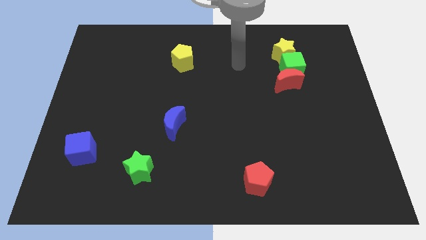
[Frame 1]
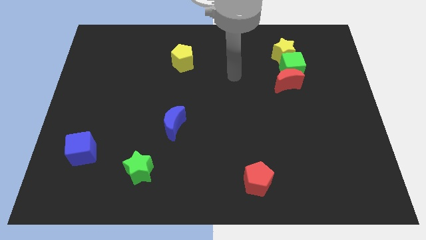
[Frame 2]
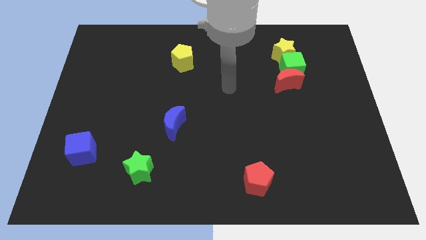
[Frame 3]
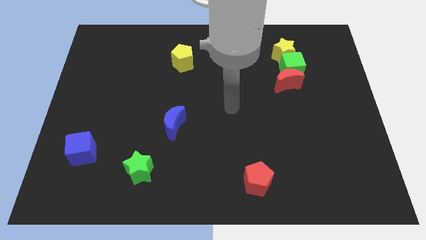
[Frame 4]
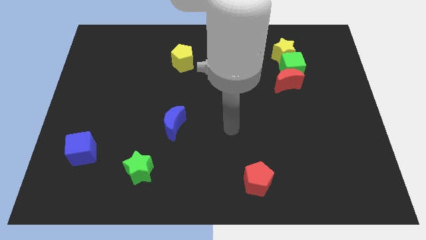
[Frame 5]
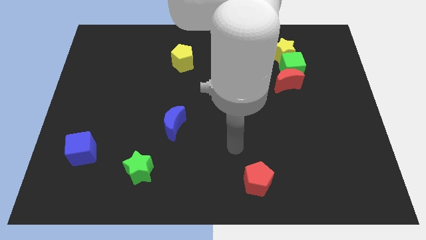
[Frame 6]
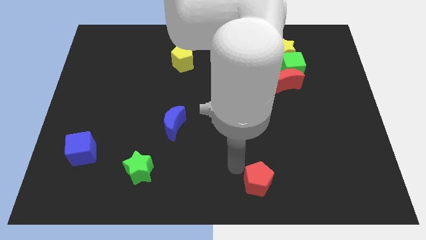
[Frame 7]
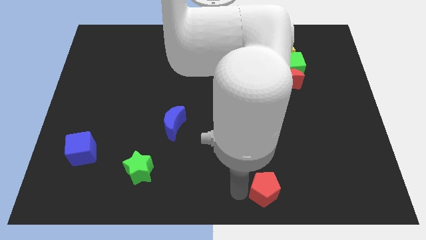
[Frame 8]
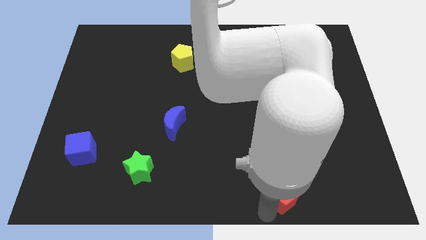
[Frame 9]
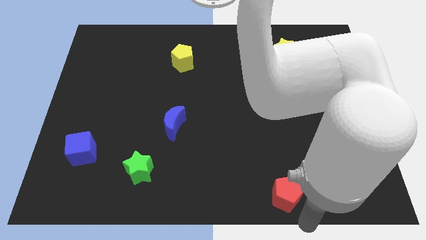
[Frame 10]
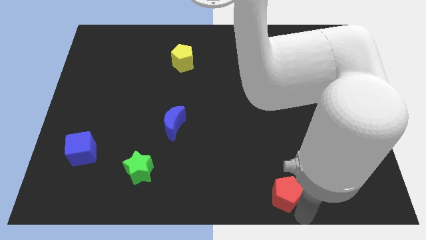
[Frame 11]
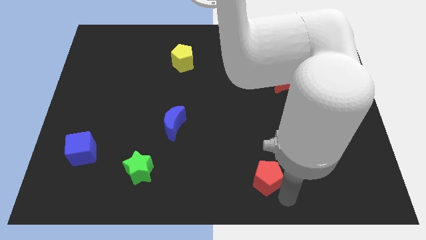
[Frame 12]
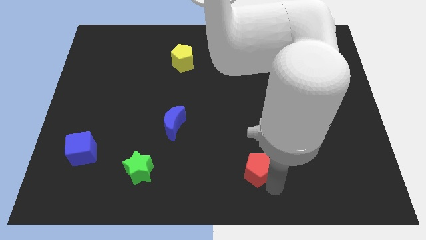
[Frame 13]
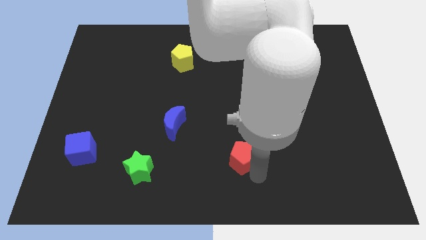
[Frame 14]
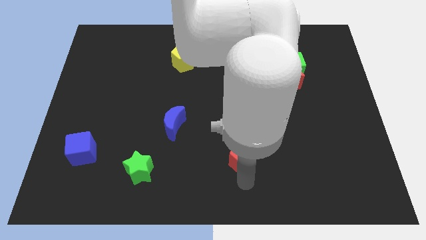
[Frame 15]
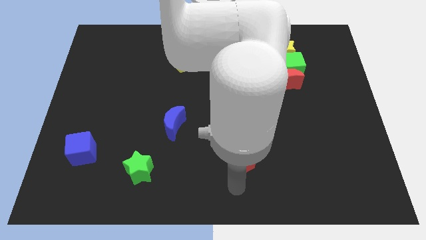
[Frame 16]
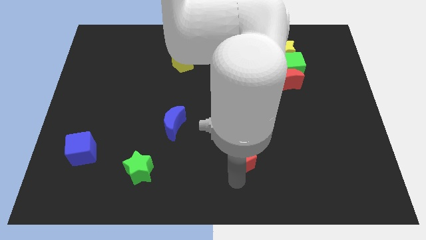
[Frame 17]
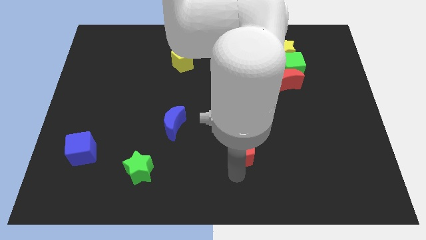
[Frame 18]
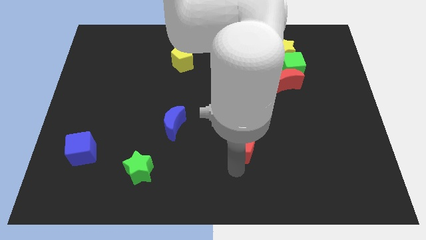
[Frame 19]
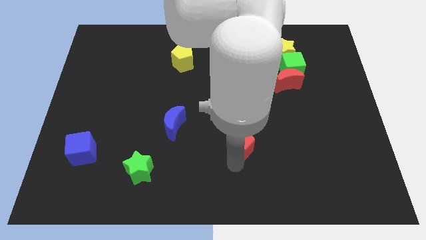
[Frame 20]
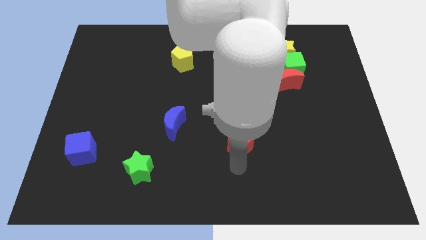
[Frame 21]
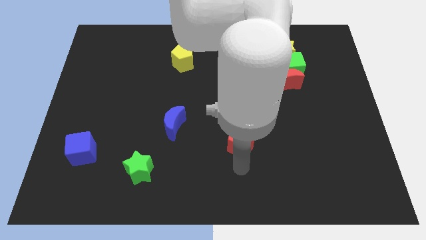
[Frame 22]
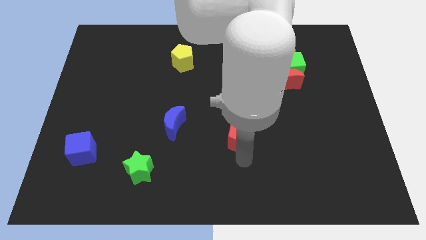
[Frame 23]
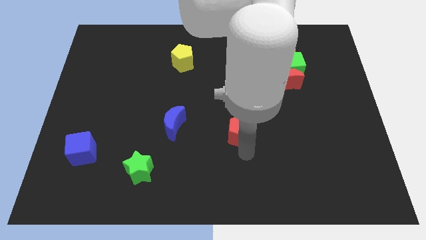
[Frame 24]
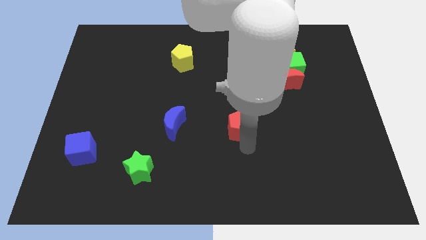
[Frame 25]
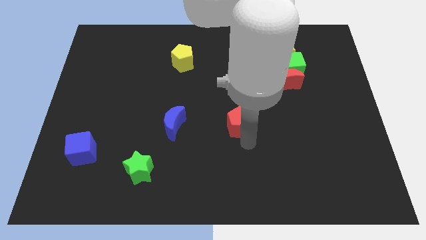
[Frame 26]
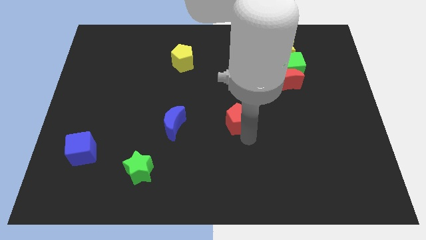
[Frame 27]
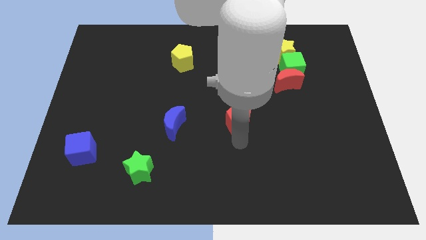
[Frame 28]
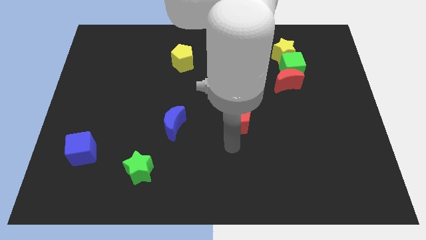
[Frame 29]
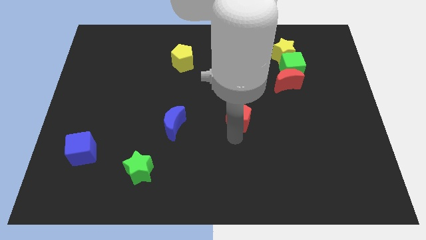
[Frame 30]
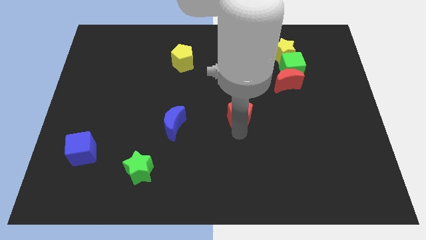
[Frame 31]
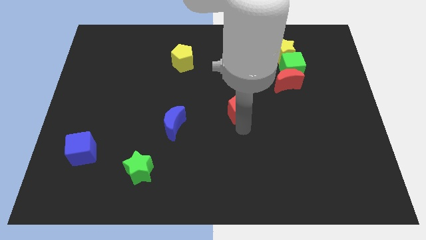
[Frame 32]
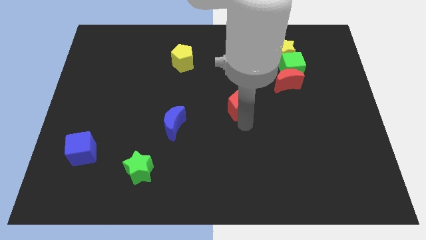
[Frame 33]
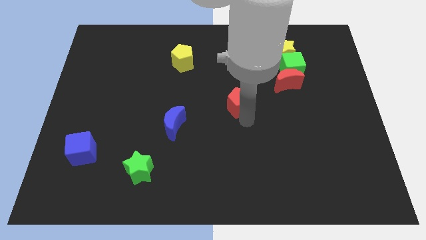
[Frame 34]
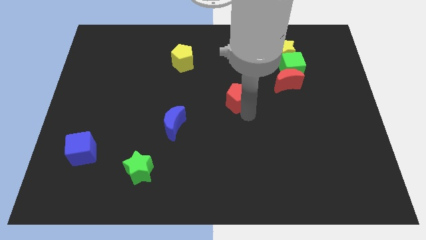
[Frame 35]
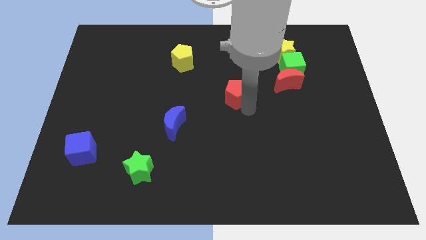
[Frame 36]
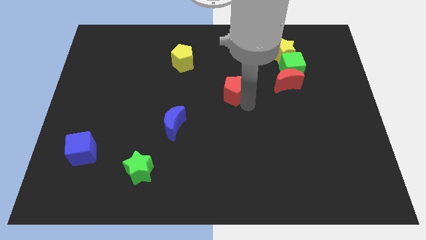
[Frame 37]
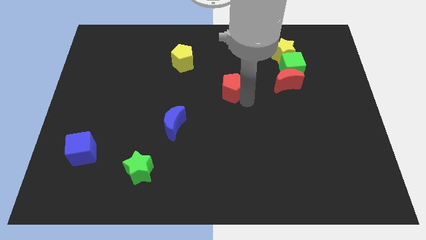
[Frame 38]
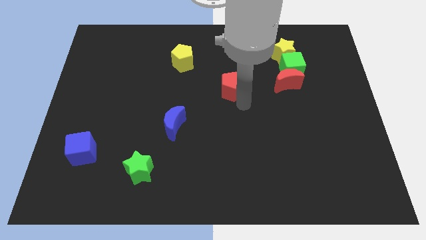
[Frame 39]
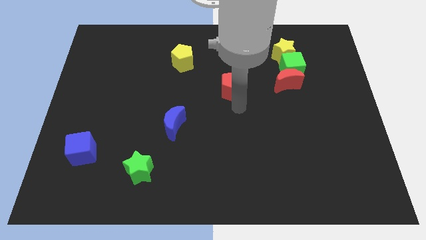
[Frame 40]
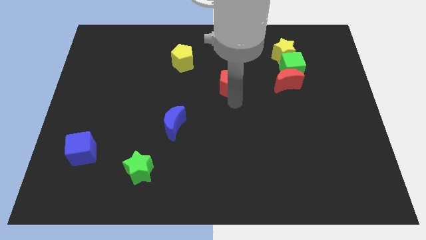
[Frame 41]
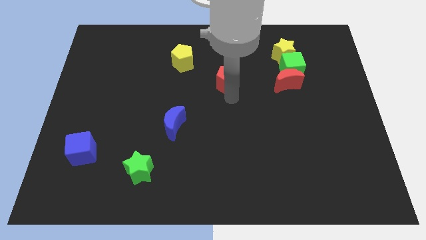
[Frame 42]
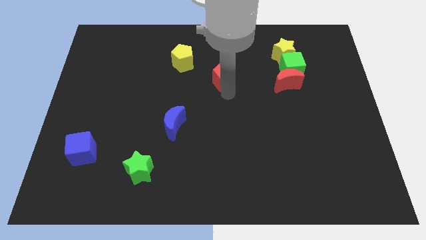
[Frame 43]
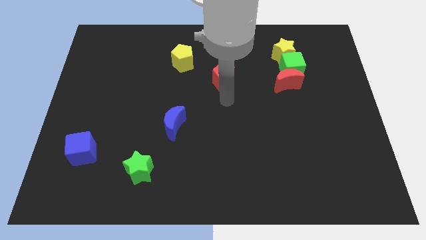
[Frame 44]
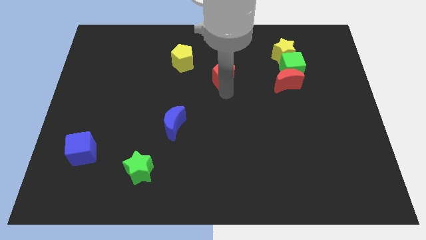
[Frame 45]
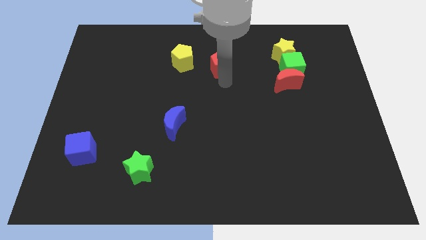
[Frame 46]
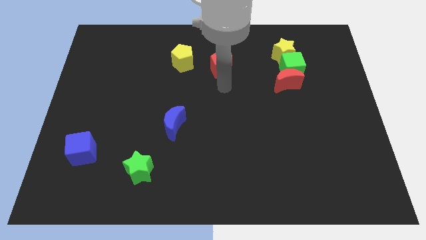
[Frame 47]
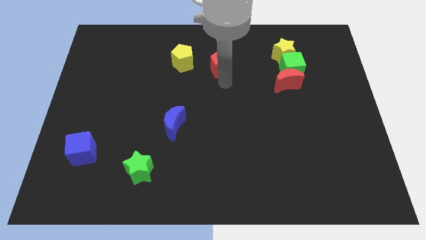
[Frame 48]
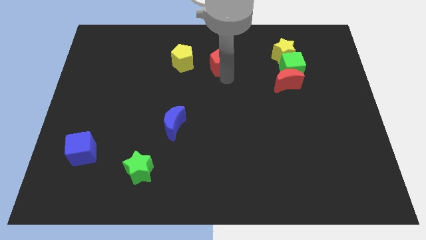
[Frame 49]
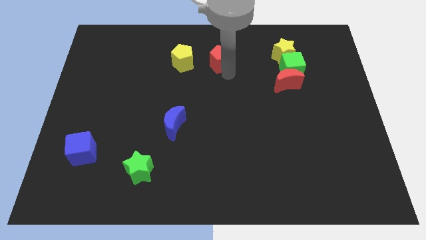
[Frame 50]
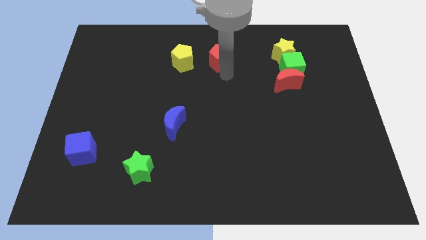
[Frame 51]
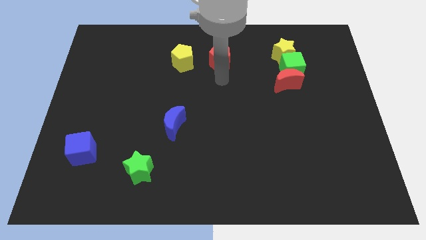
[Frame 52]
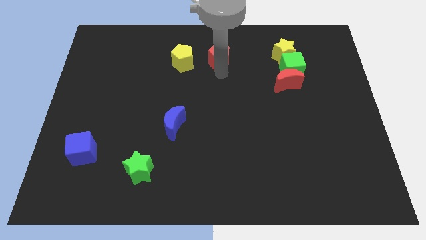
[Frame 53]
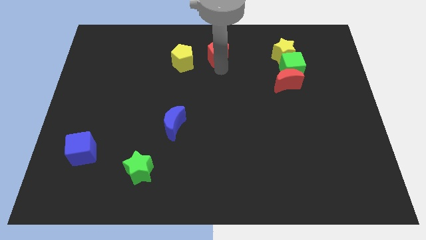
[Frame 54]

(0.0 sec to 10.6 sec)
move the red pentagon to the towards your base
